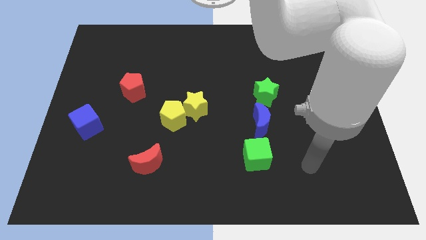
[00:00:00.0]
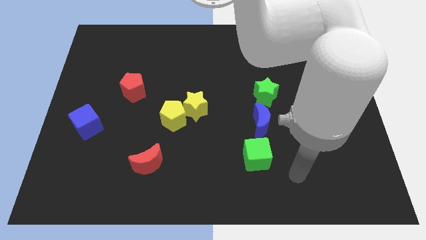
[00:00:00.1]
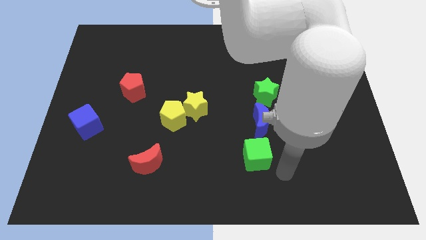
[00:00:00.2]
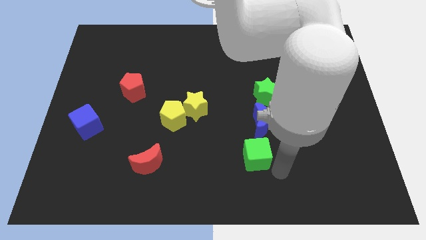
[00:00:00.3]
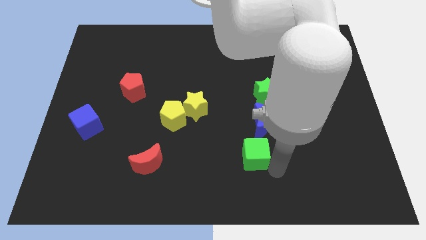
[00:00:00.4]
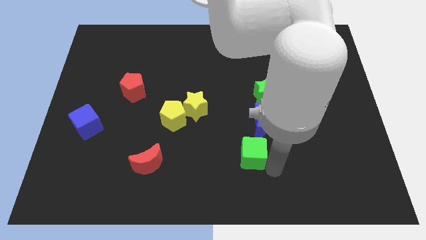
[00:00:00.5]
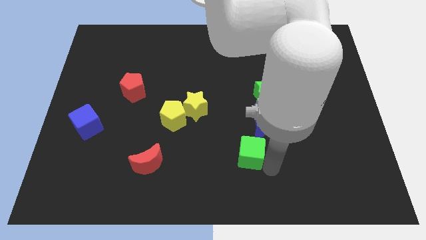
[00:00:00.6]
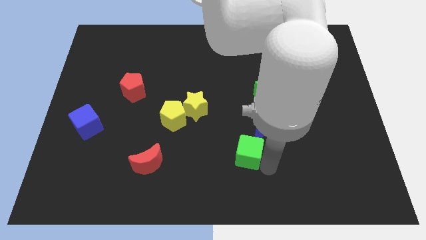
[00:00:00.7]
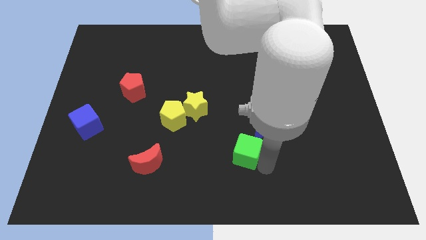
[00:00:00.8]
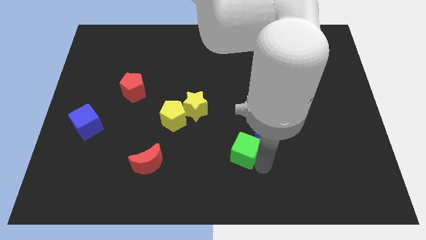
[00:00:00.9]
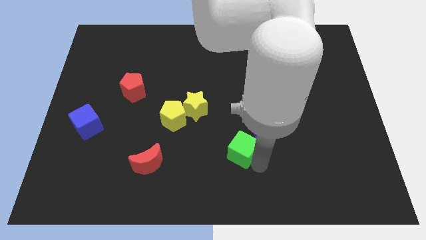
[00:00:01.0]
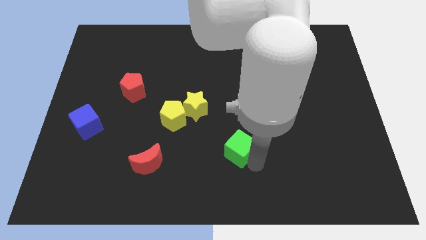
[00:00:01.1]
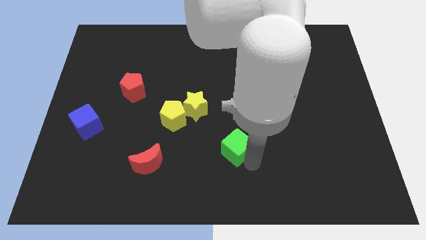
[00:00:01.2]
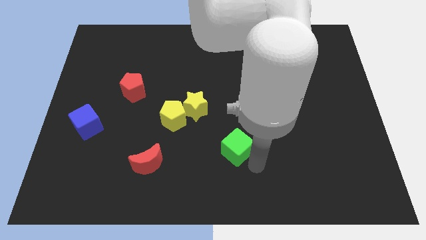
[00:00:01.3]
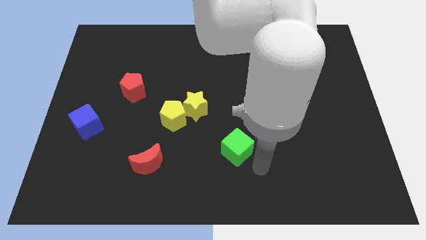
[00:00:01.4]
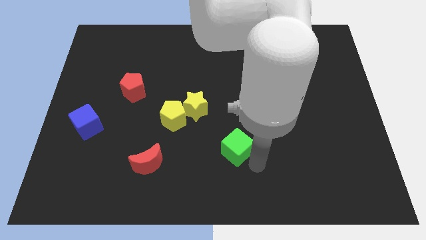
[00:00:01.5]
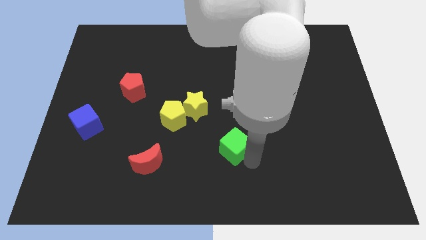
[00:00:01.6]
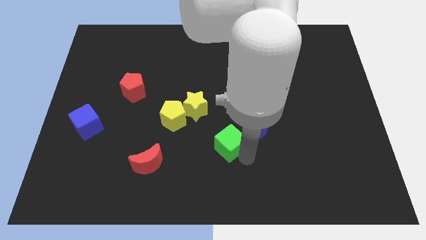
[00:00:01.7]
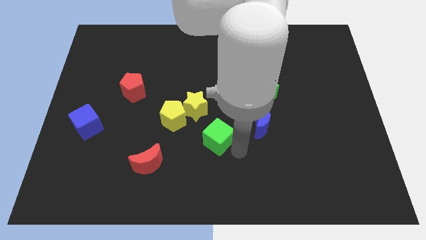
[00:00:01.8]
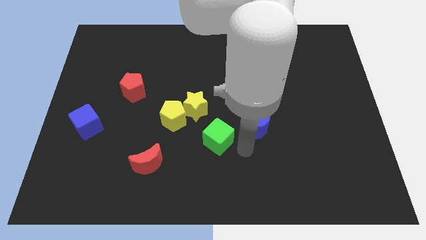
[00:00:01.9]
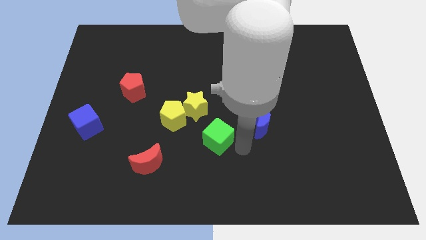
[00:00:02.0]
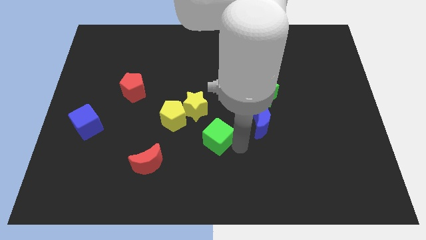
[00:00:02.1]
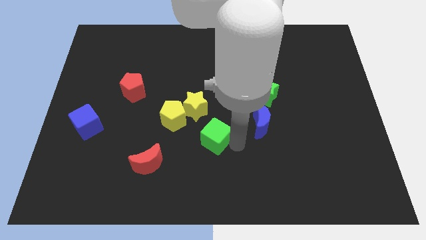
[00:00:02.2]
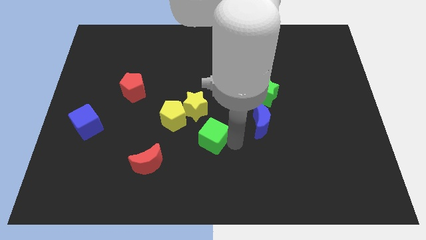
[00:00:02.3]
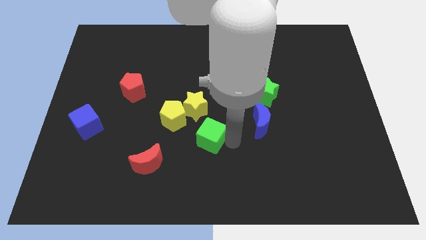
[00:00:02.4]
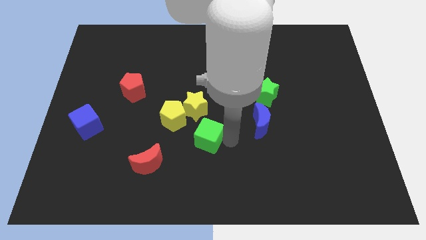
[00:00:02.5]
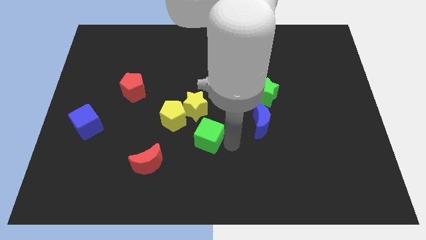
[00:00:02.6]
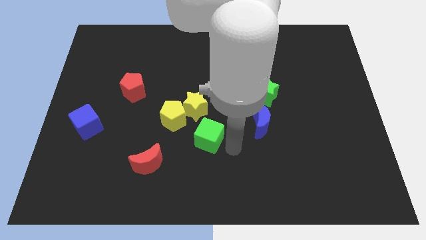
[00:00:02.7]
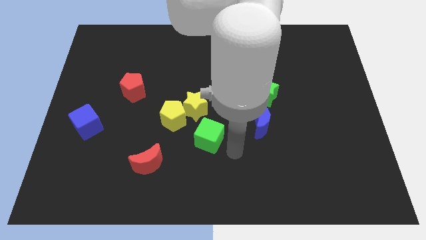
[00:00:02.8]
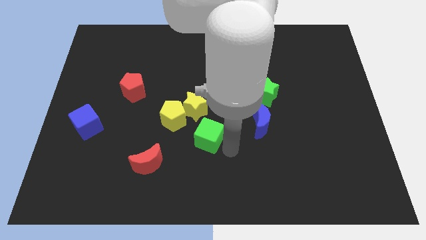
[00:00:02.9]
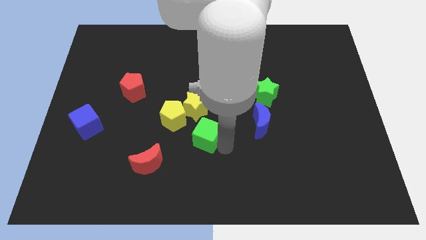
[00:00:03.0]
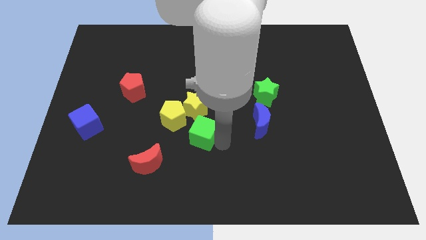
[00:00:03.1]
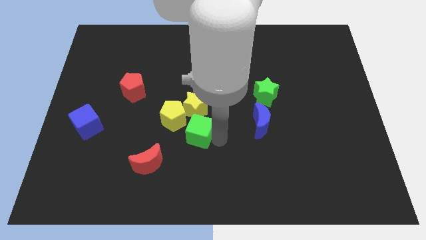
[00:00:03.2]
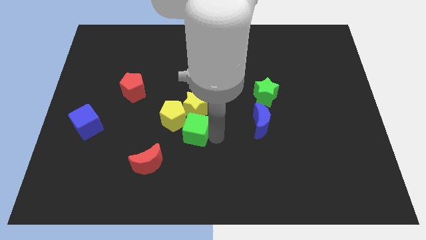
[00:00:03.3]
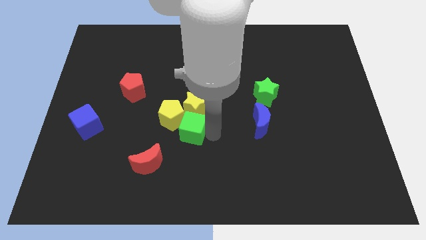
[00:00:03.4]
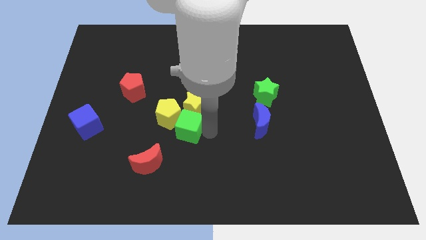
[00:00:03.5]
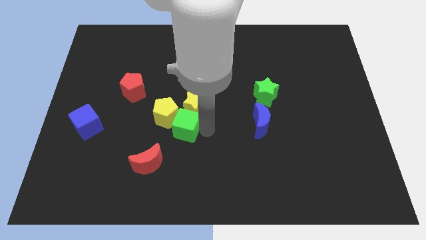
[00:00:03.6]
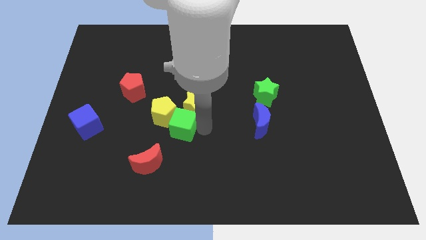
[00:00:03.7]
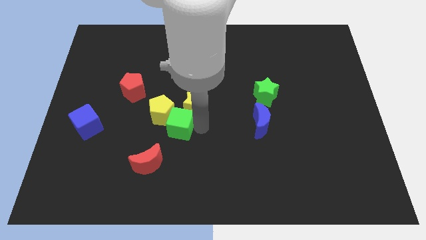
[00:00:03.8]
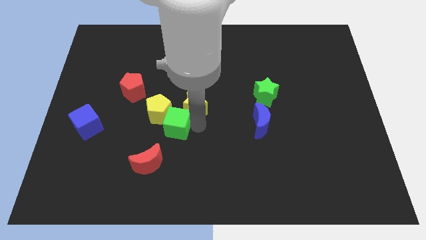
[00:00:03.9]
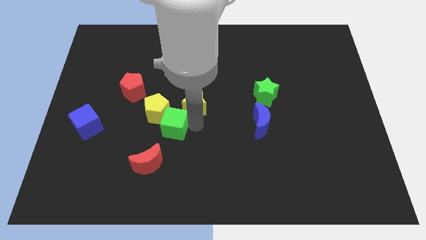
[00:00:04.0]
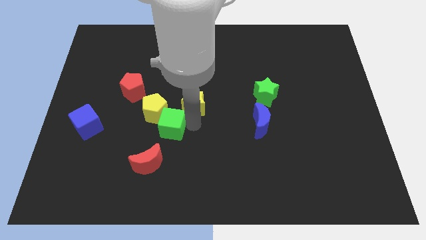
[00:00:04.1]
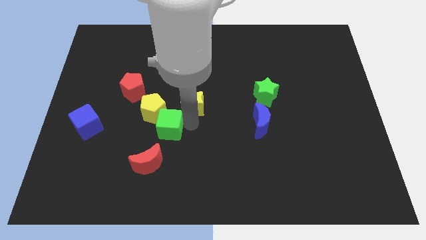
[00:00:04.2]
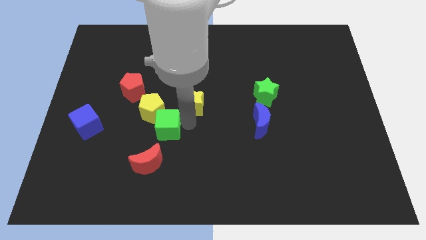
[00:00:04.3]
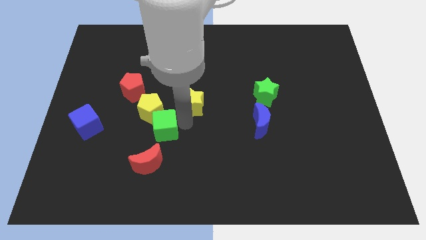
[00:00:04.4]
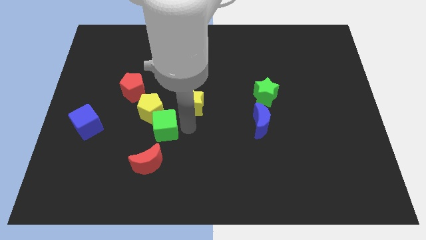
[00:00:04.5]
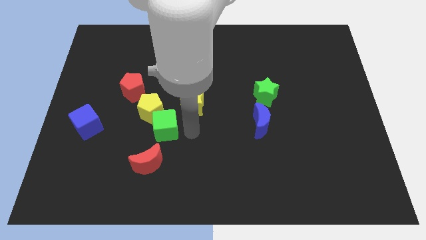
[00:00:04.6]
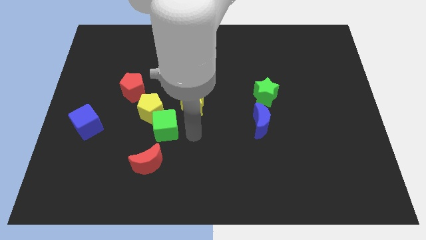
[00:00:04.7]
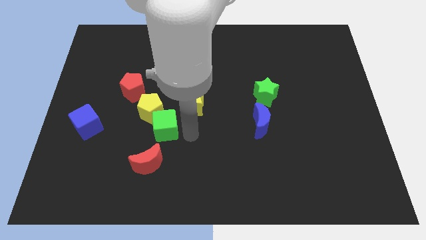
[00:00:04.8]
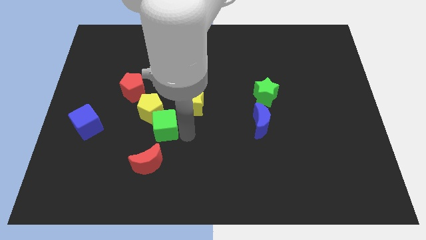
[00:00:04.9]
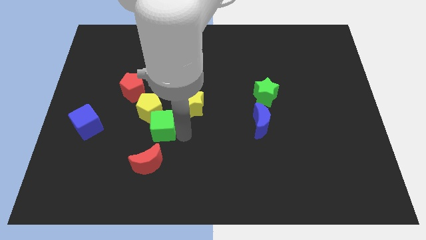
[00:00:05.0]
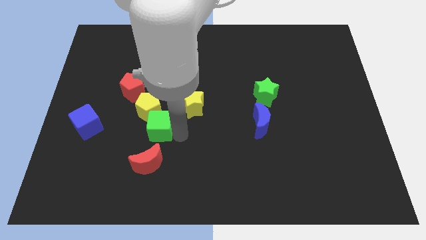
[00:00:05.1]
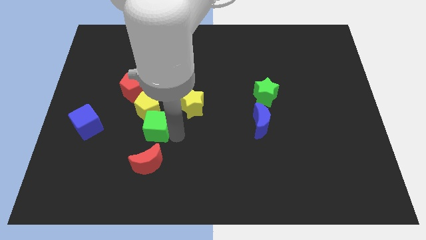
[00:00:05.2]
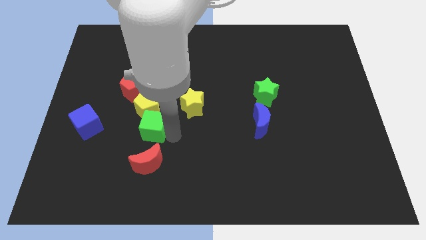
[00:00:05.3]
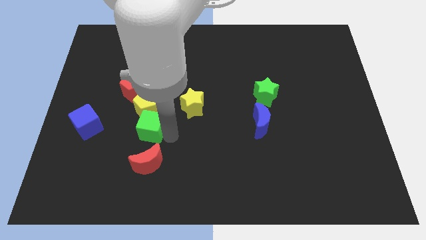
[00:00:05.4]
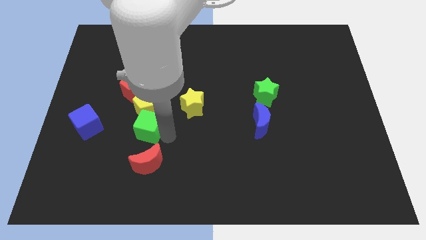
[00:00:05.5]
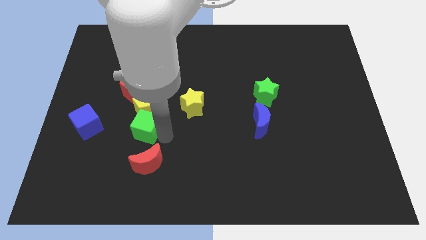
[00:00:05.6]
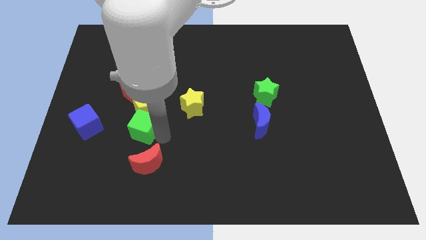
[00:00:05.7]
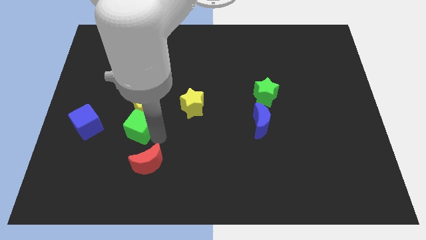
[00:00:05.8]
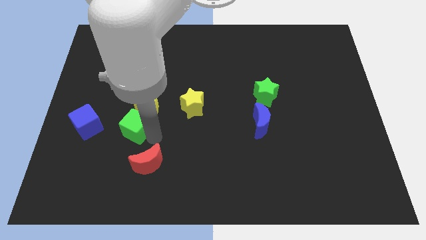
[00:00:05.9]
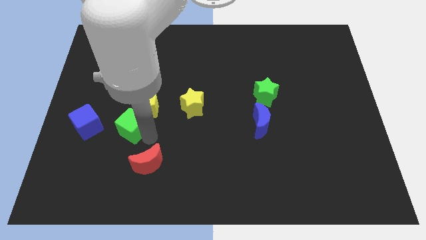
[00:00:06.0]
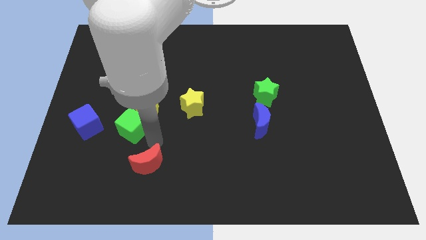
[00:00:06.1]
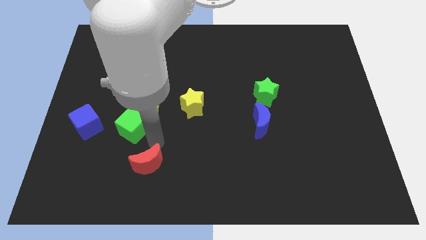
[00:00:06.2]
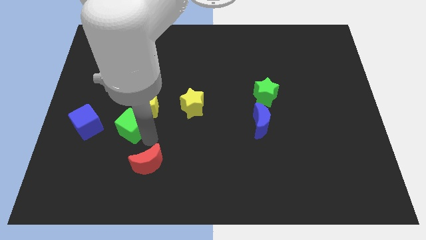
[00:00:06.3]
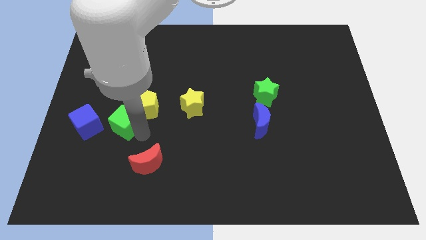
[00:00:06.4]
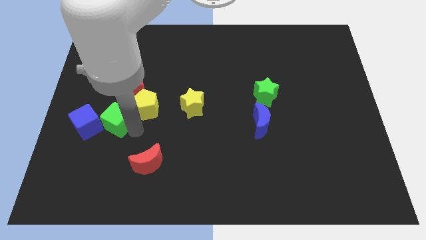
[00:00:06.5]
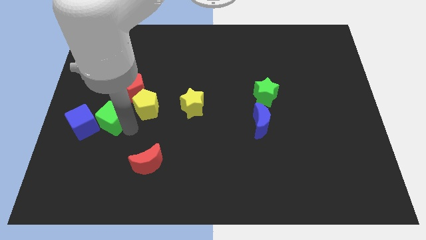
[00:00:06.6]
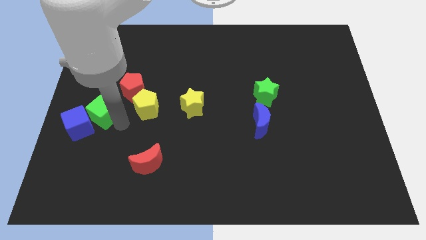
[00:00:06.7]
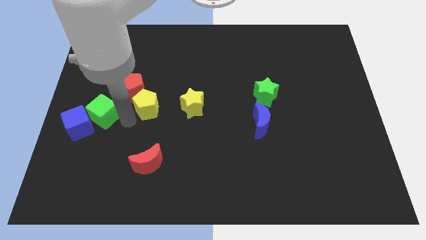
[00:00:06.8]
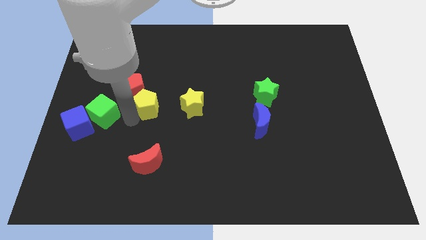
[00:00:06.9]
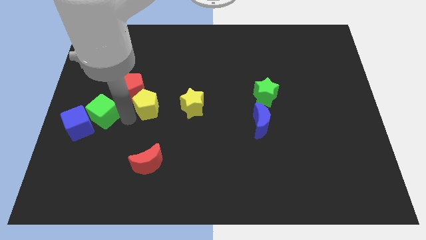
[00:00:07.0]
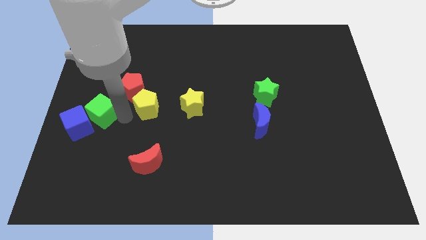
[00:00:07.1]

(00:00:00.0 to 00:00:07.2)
put the green cube to the center left
